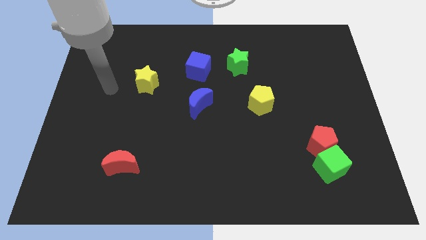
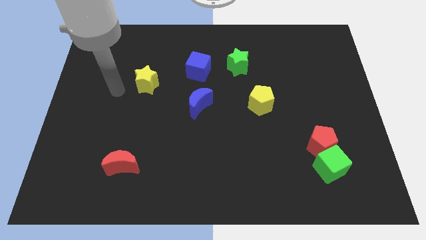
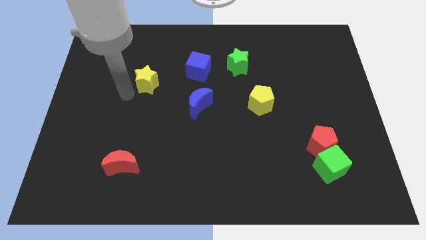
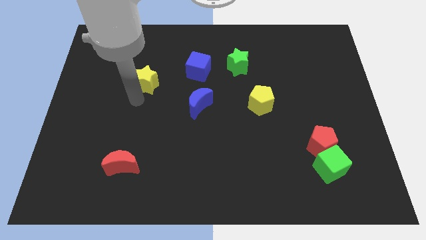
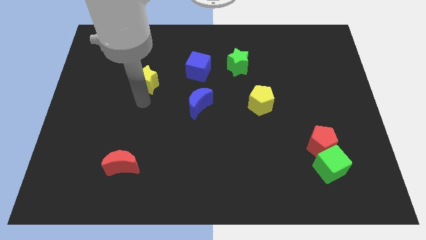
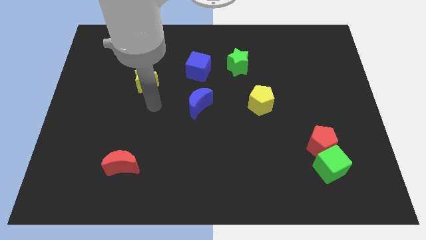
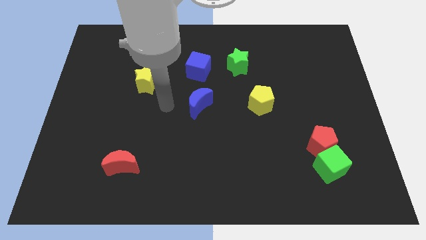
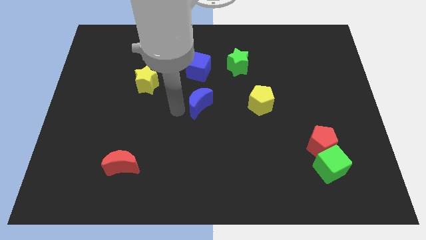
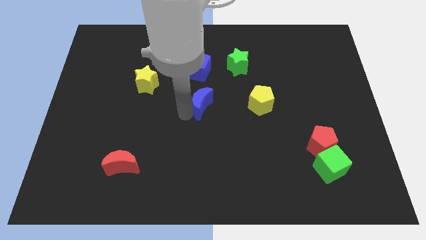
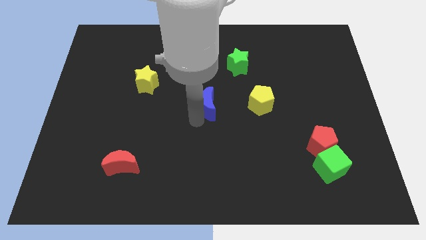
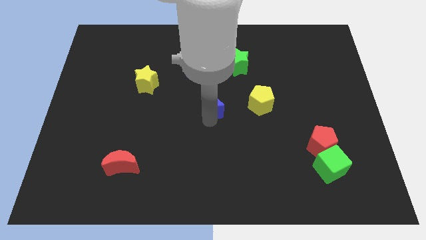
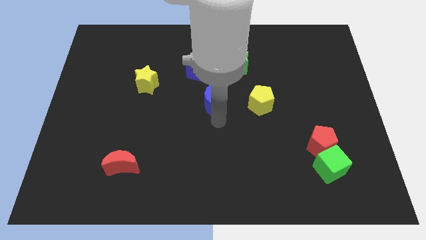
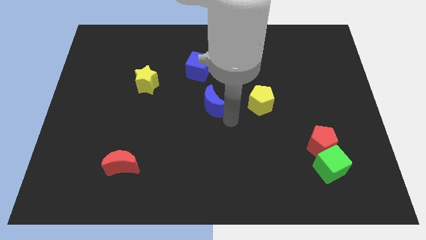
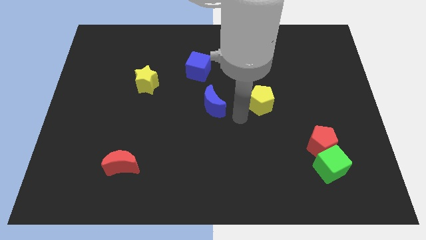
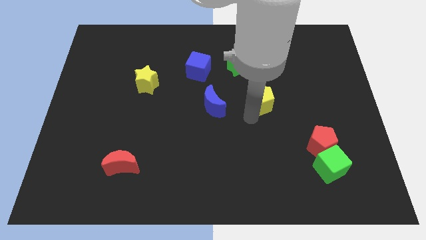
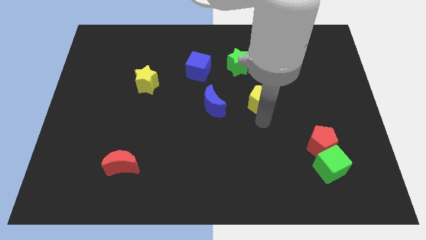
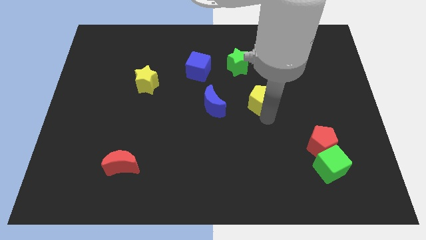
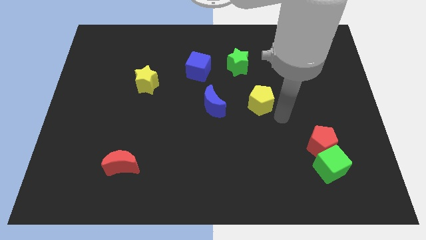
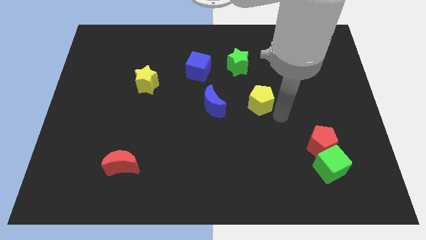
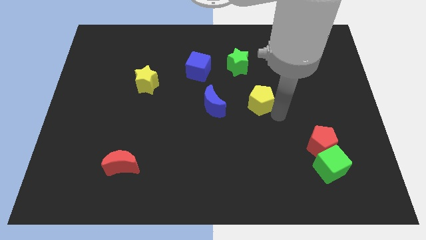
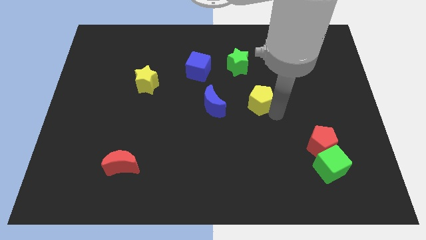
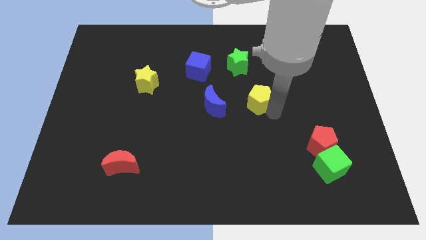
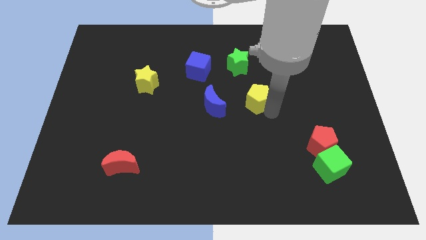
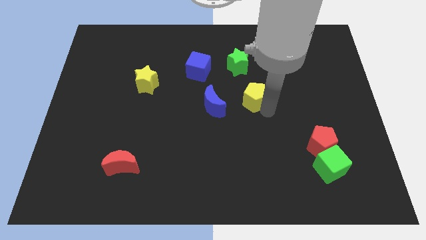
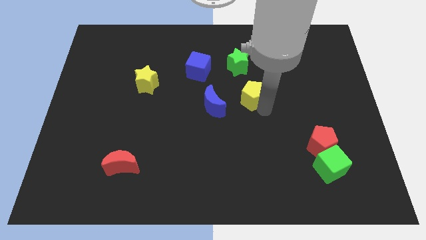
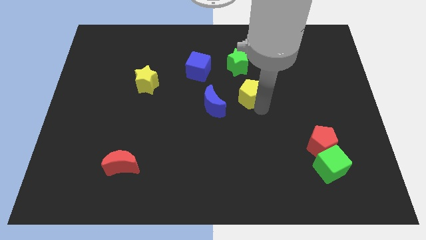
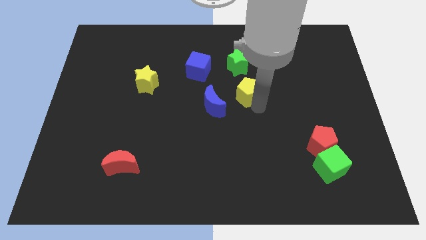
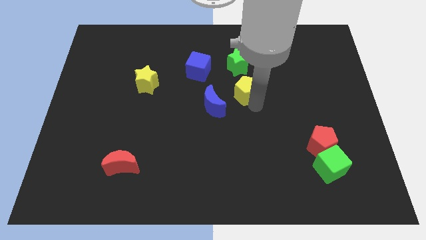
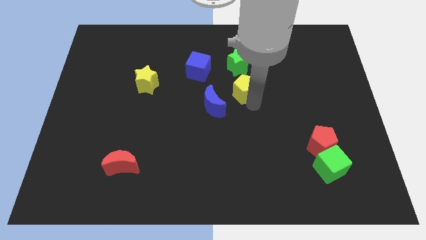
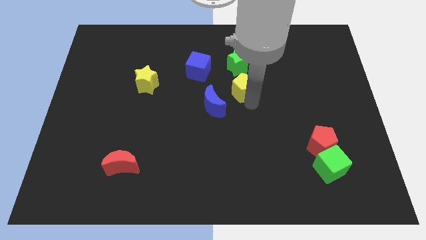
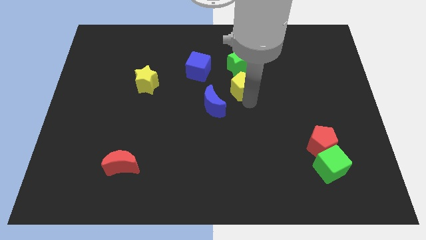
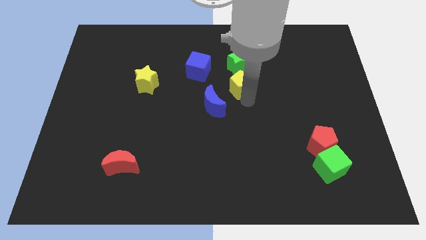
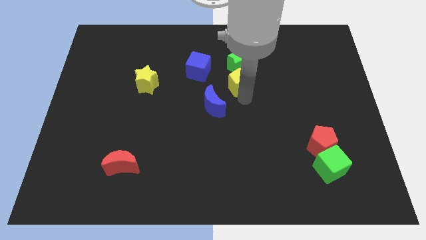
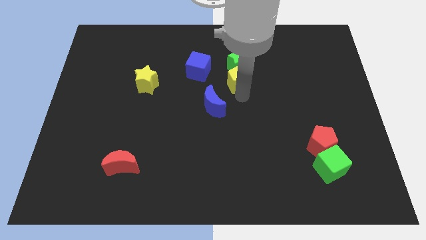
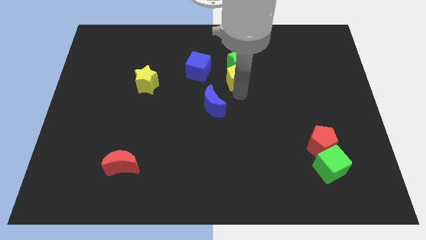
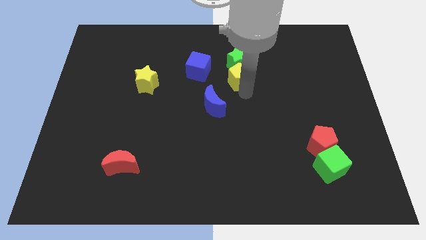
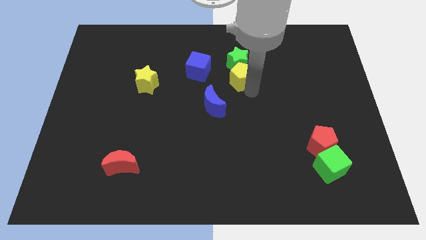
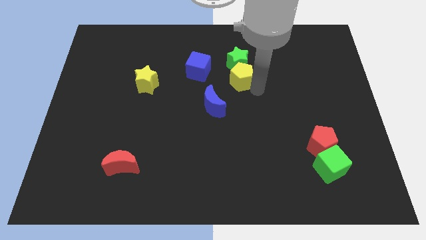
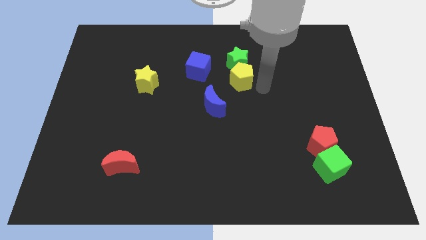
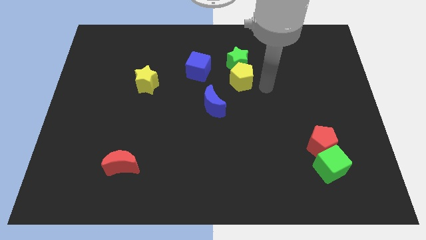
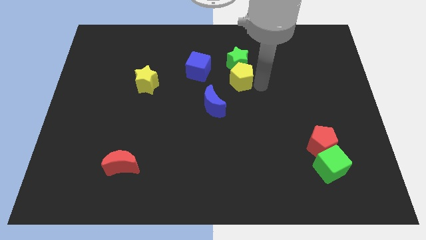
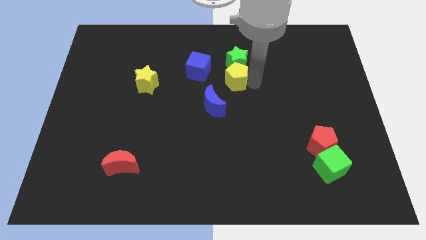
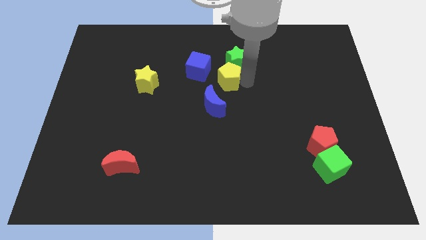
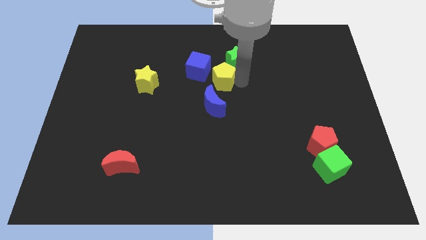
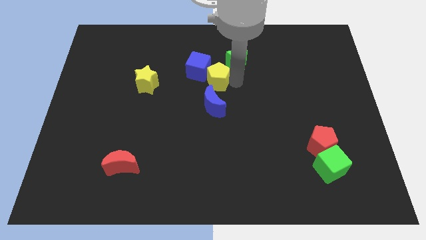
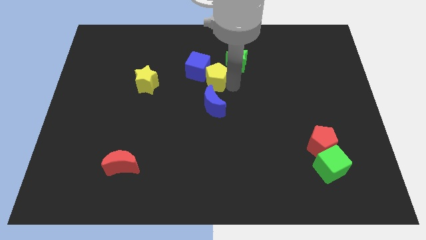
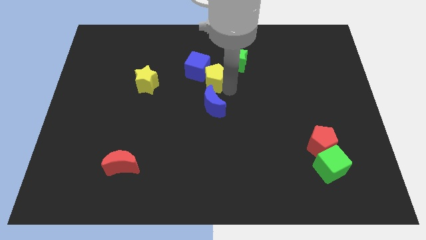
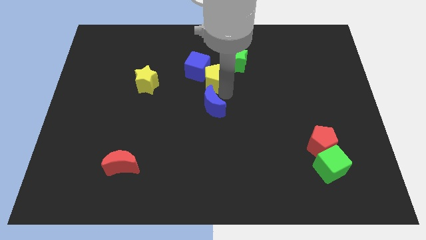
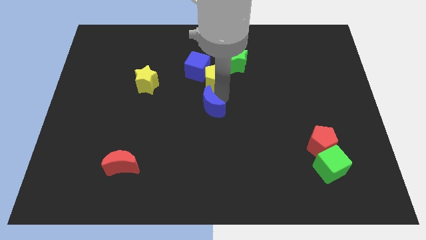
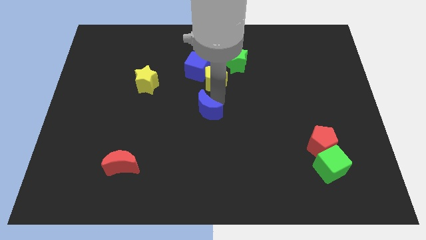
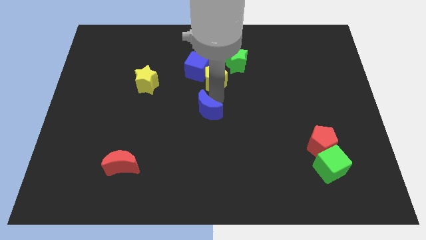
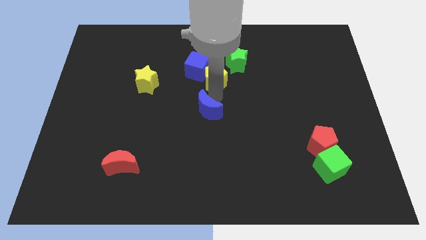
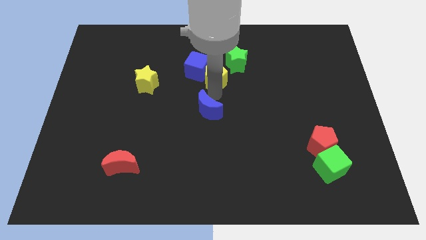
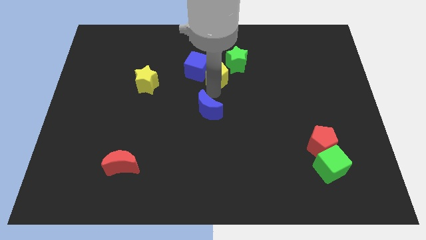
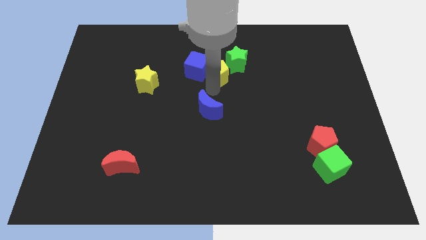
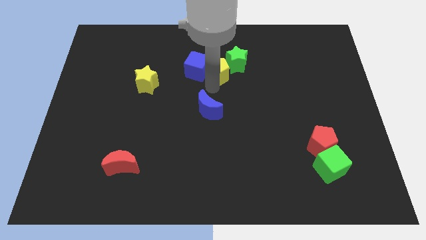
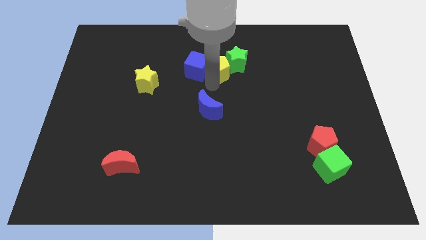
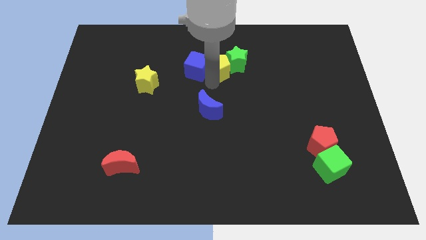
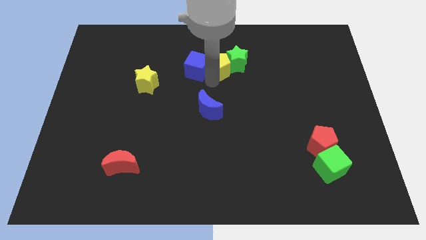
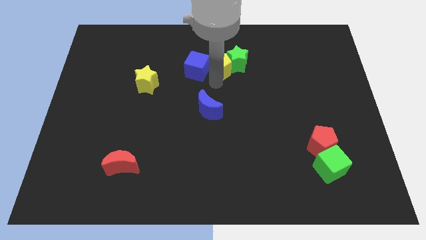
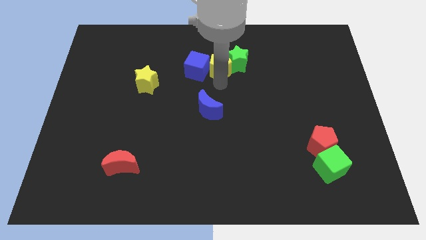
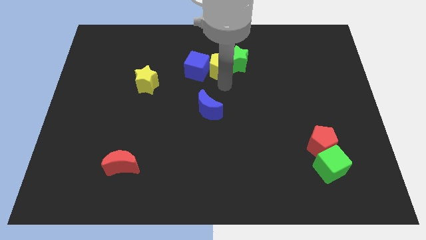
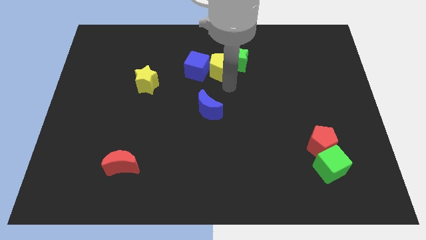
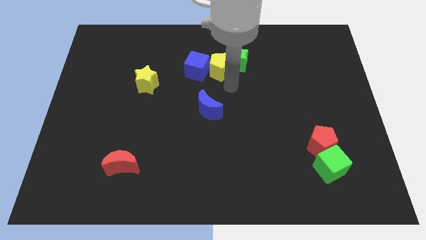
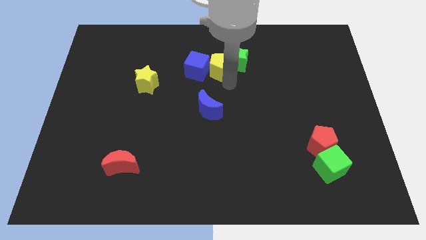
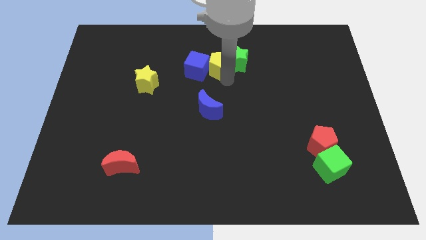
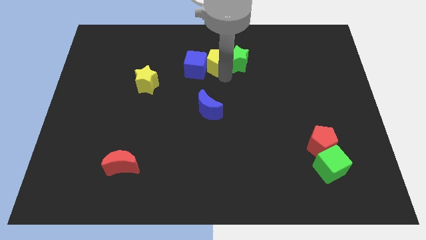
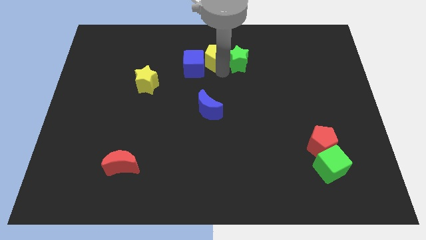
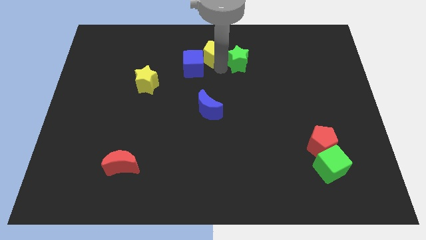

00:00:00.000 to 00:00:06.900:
slide the yellow pentagon to the top side

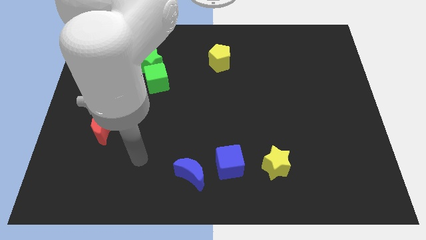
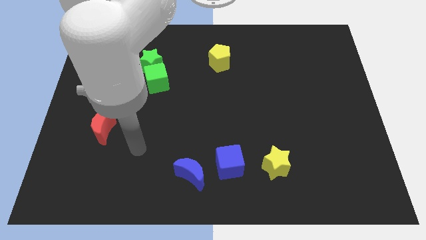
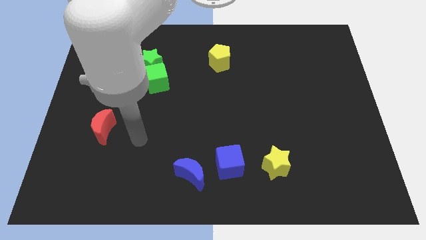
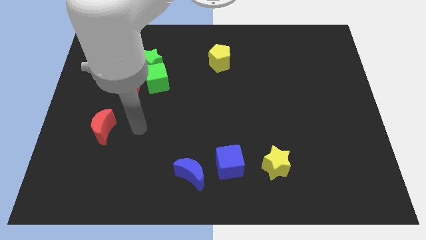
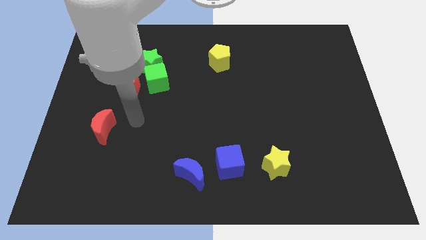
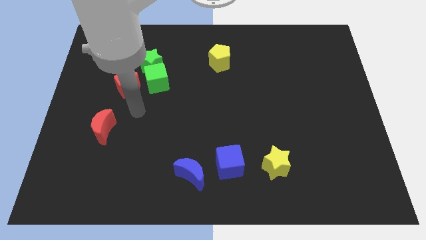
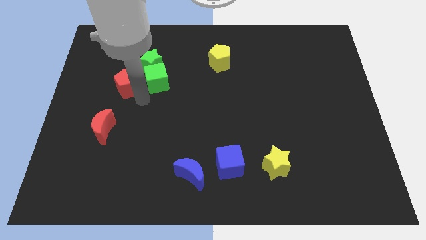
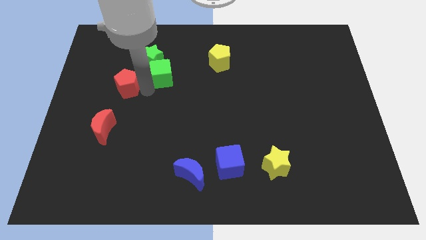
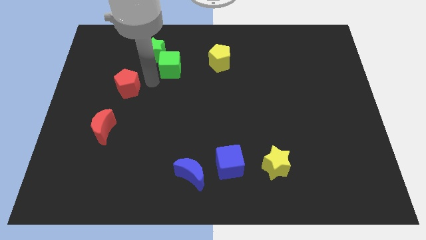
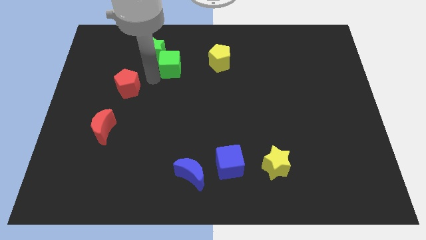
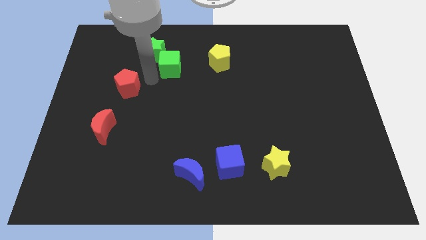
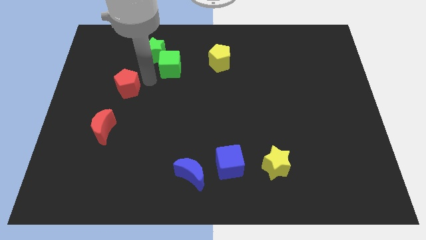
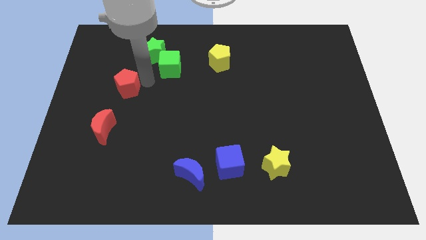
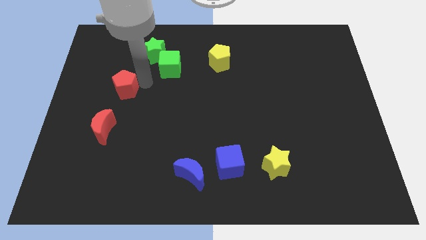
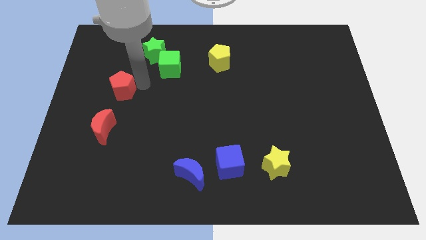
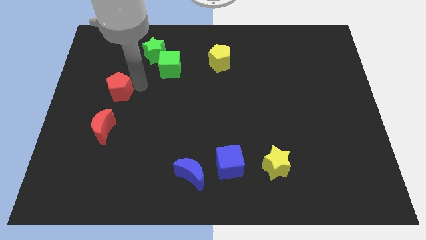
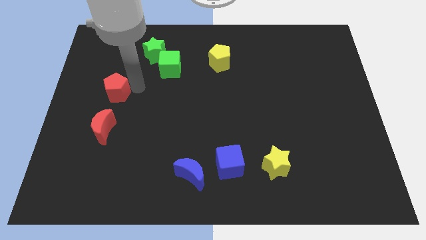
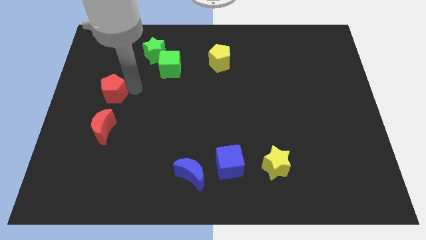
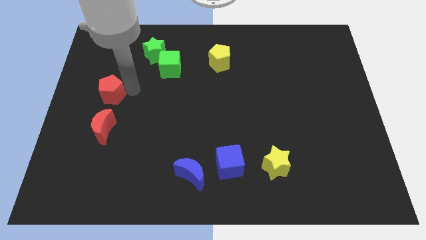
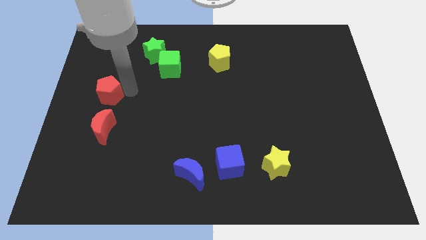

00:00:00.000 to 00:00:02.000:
push the red pentagon to the left side of the board
